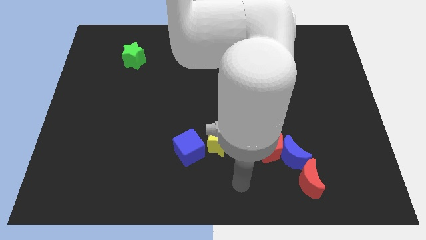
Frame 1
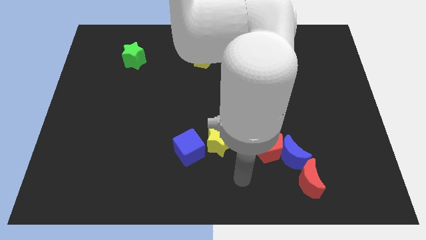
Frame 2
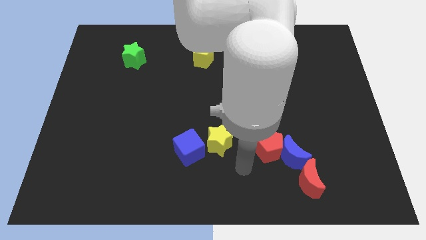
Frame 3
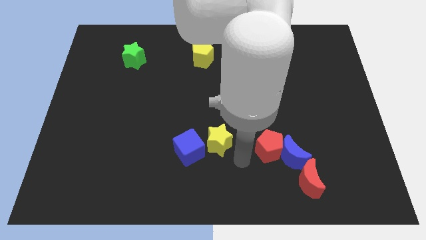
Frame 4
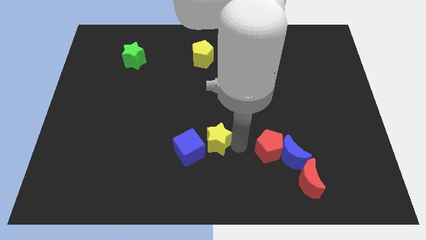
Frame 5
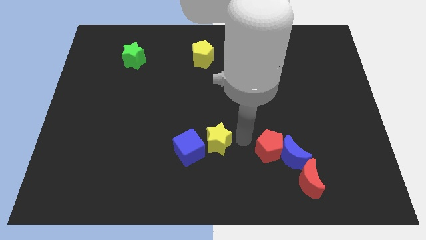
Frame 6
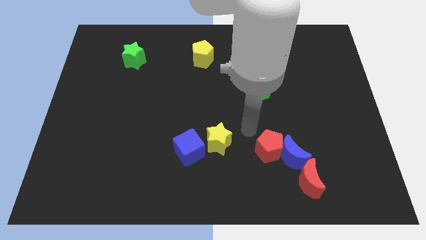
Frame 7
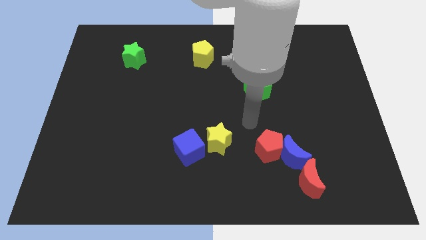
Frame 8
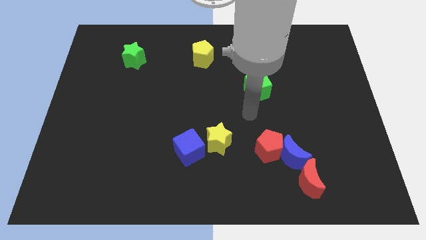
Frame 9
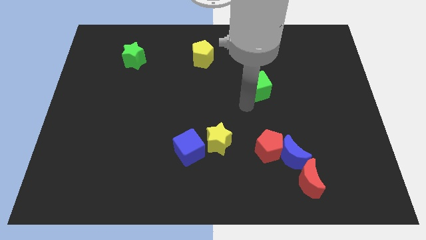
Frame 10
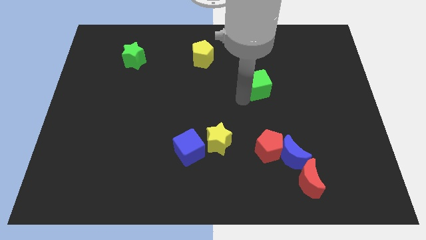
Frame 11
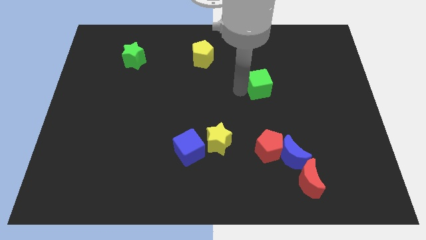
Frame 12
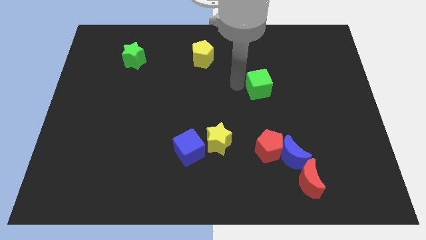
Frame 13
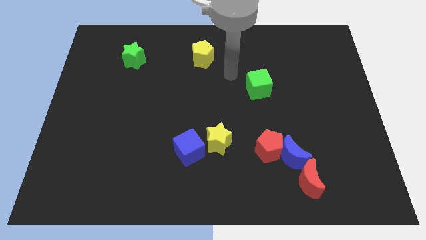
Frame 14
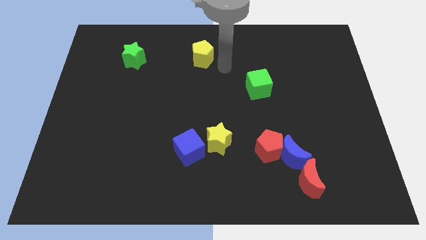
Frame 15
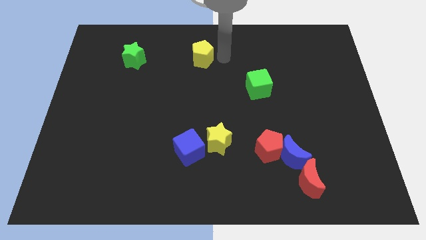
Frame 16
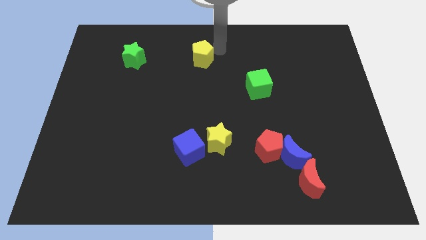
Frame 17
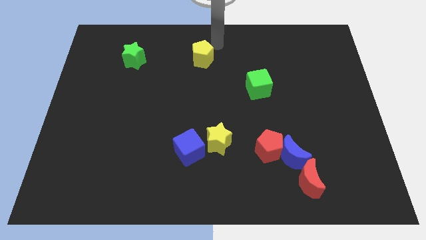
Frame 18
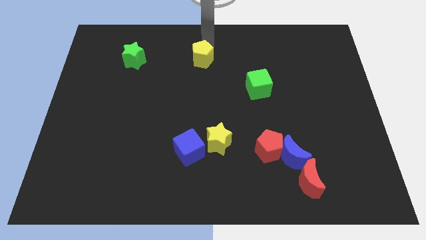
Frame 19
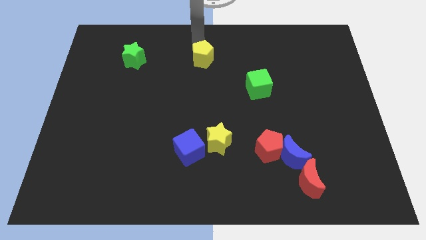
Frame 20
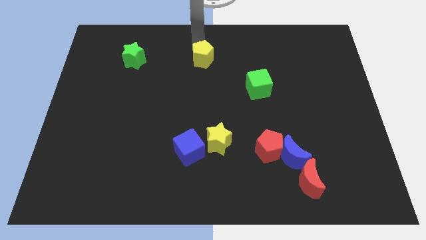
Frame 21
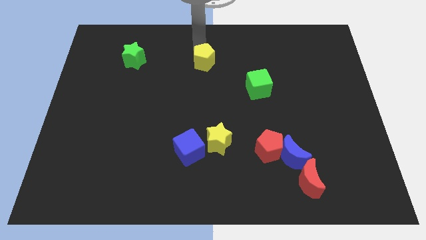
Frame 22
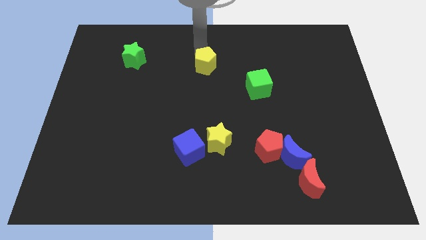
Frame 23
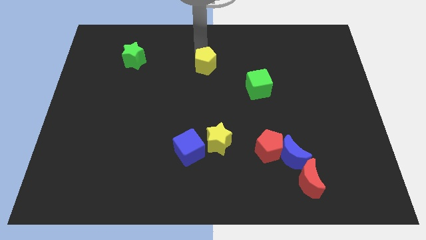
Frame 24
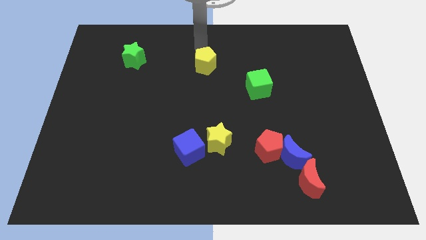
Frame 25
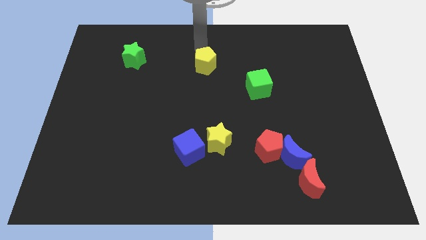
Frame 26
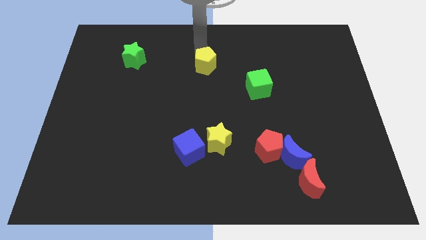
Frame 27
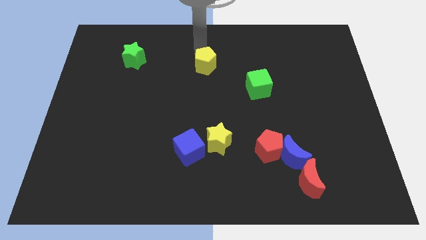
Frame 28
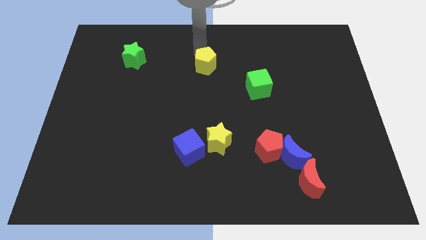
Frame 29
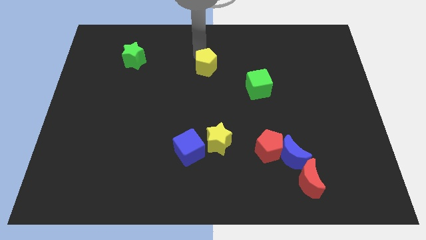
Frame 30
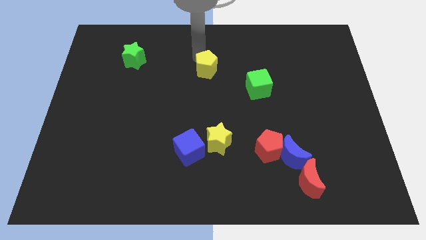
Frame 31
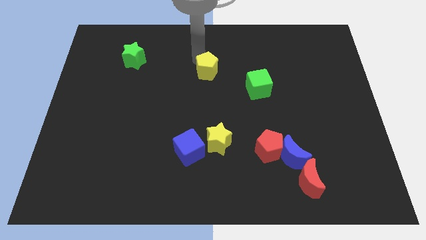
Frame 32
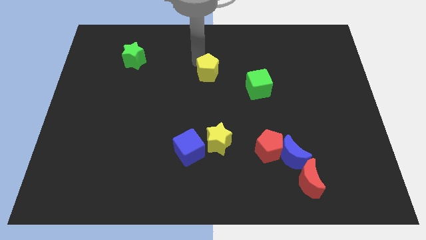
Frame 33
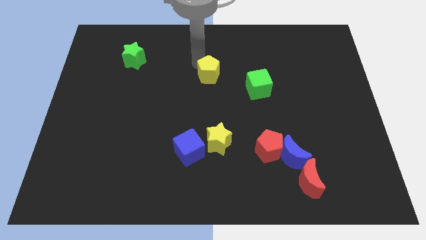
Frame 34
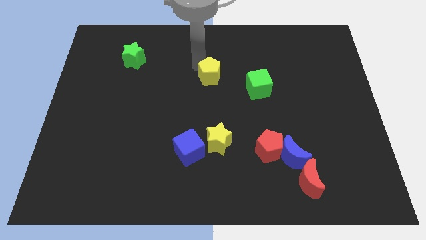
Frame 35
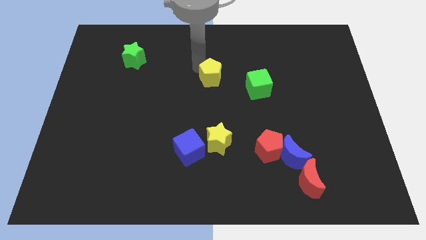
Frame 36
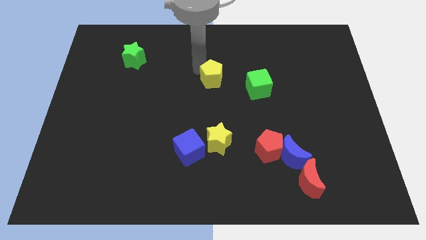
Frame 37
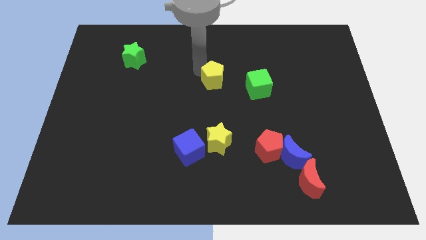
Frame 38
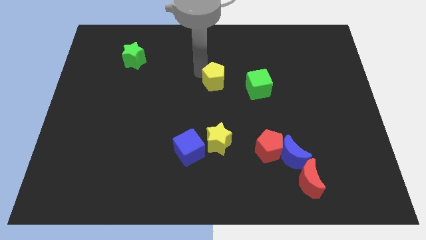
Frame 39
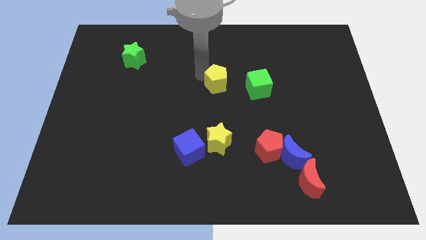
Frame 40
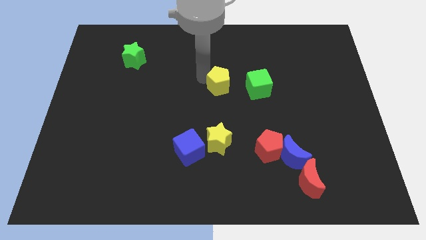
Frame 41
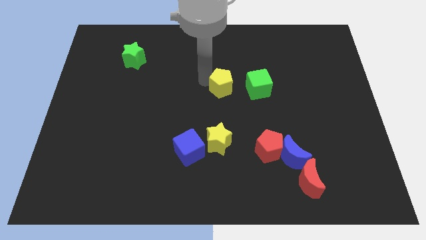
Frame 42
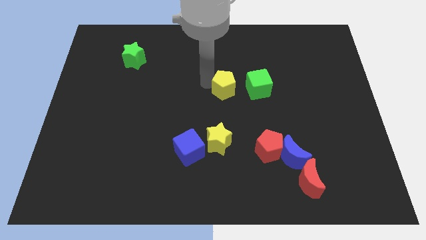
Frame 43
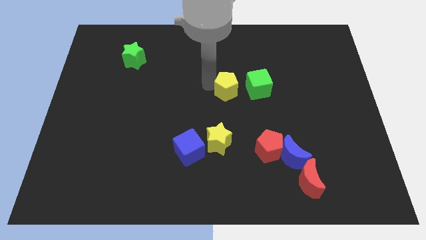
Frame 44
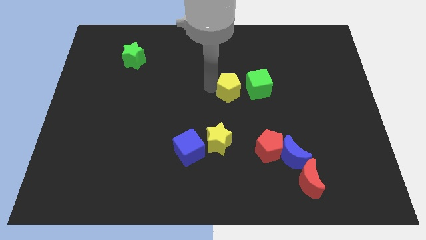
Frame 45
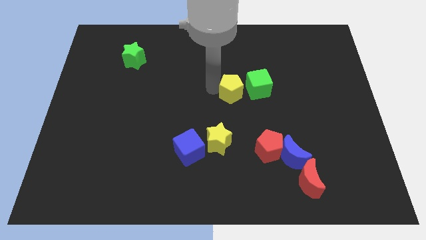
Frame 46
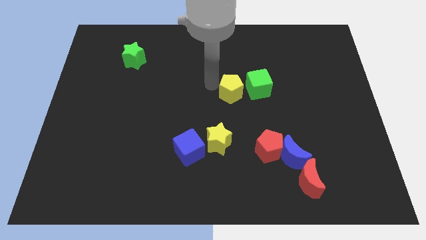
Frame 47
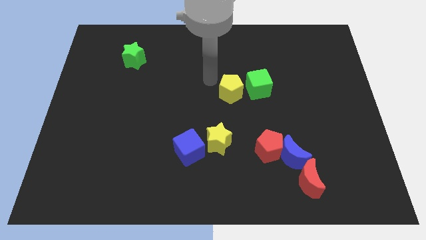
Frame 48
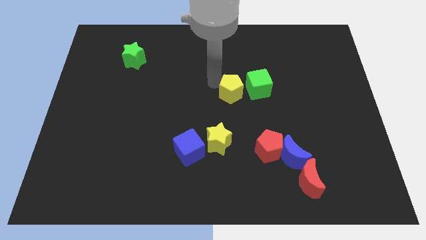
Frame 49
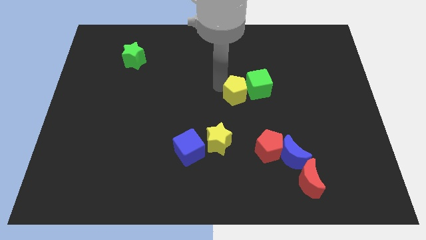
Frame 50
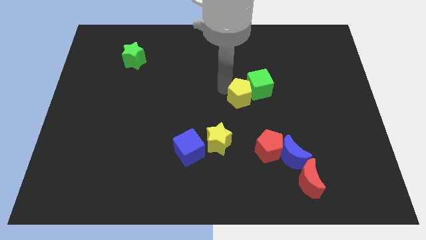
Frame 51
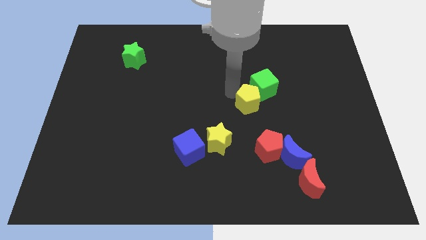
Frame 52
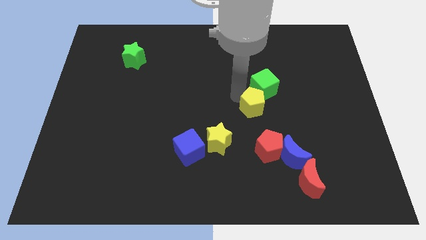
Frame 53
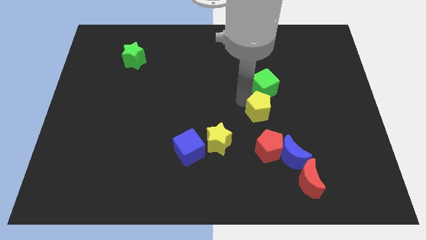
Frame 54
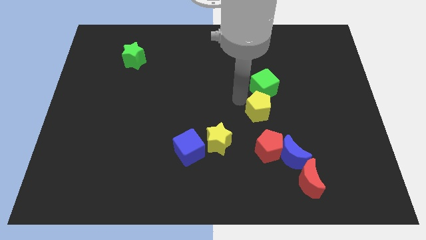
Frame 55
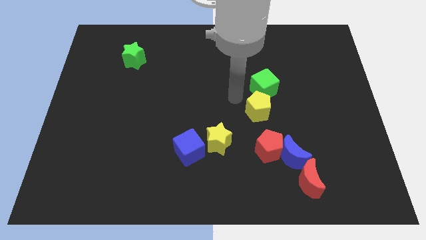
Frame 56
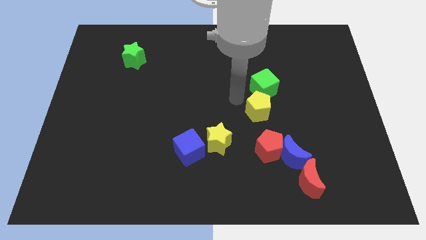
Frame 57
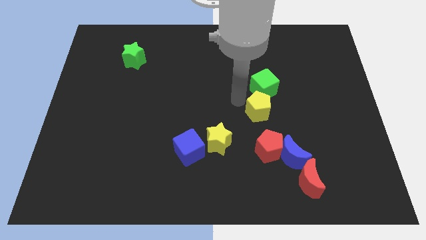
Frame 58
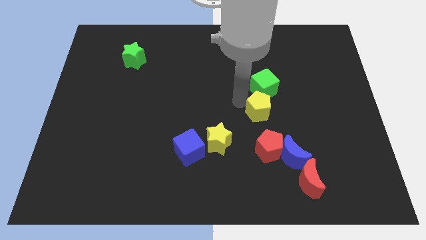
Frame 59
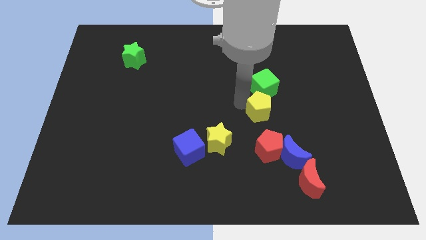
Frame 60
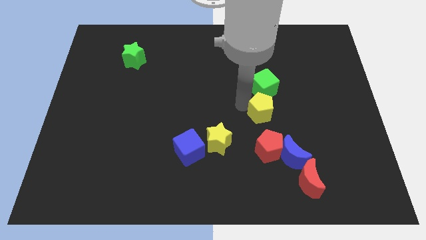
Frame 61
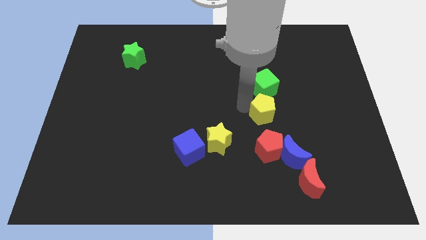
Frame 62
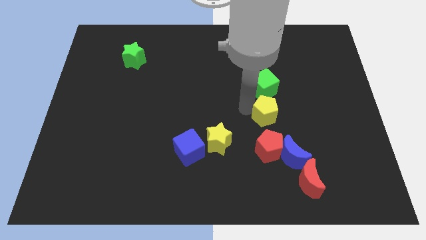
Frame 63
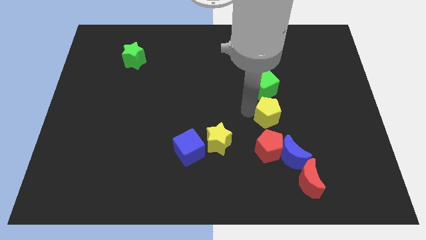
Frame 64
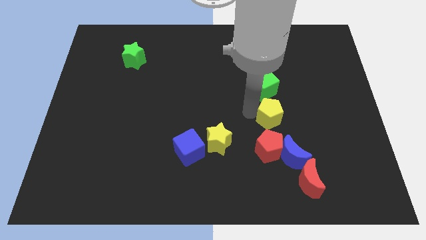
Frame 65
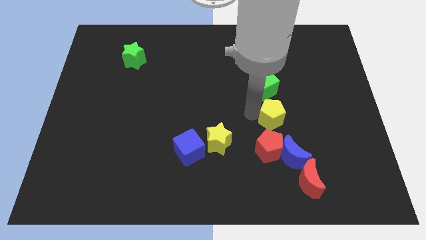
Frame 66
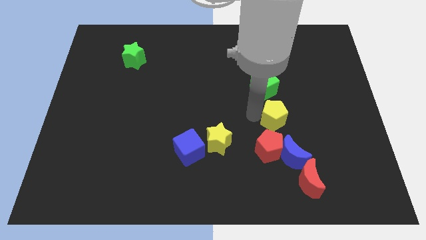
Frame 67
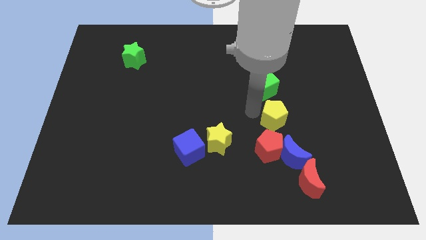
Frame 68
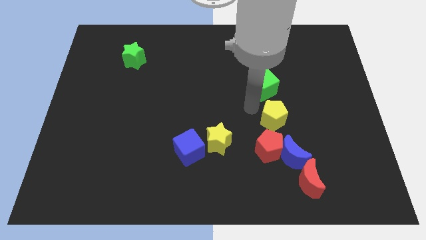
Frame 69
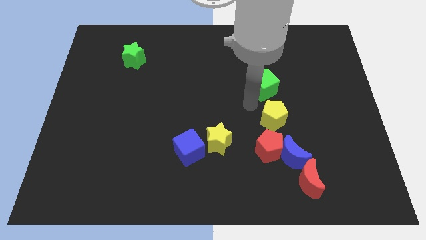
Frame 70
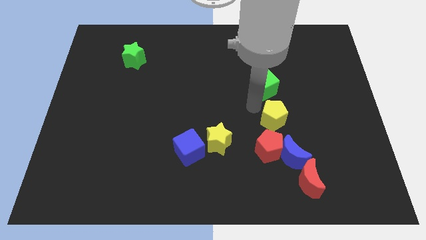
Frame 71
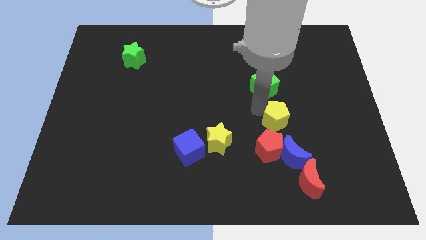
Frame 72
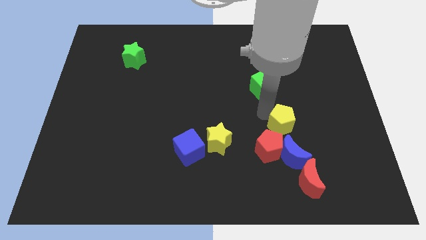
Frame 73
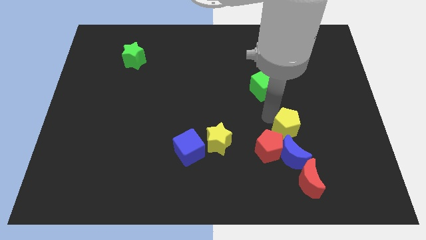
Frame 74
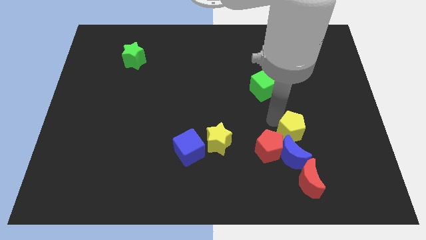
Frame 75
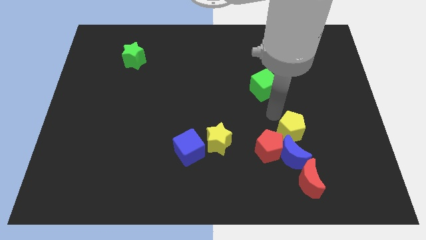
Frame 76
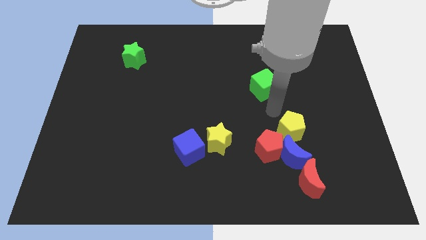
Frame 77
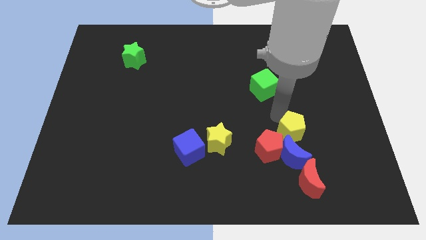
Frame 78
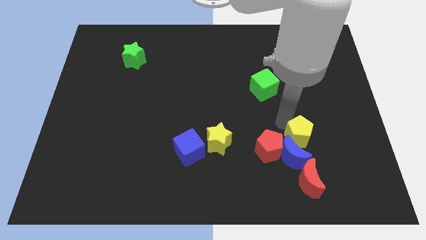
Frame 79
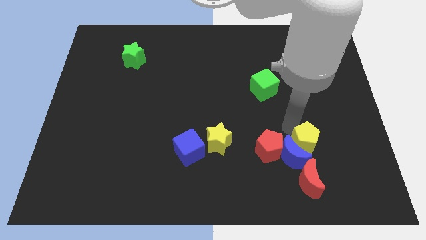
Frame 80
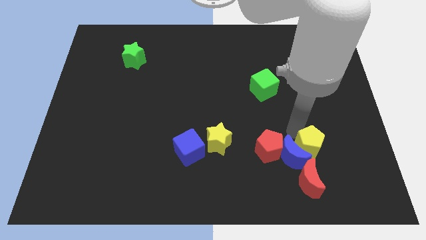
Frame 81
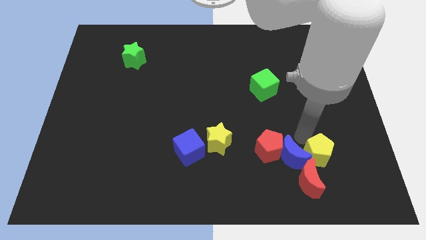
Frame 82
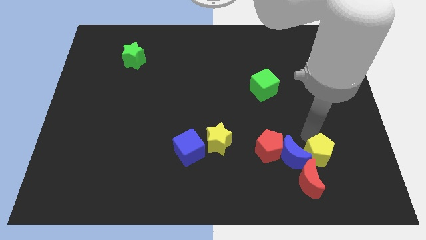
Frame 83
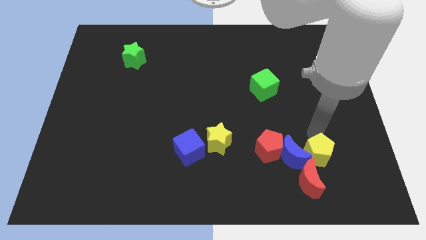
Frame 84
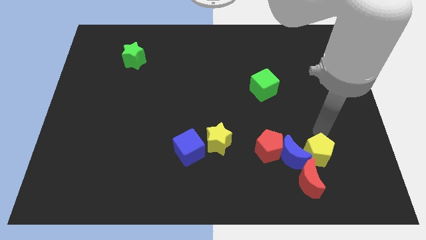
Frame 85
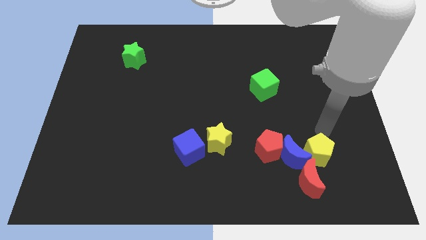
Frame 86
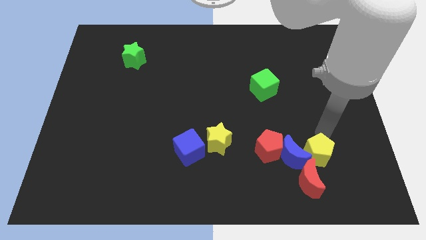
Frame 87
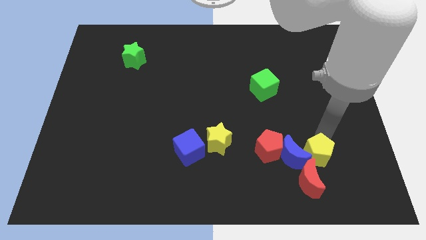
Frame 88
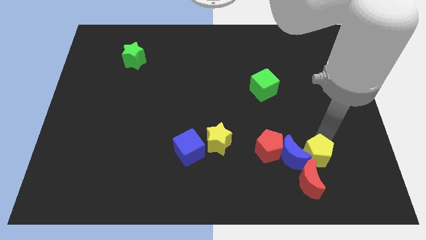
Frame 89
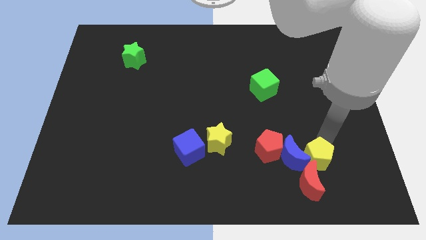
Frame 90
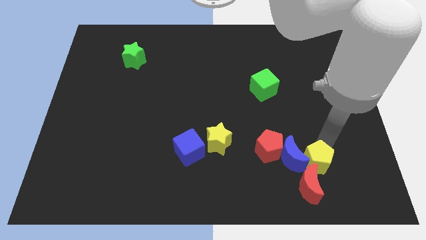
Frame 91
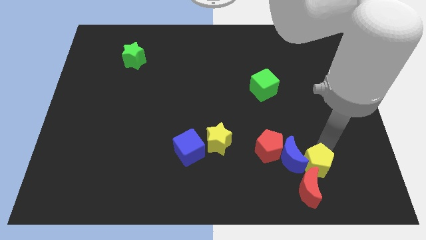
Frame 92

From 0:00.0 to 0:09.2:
slide the yellow pentagon next to the red moon
